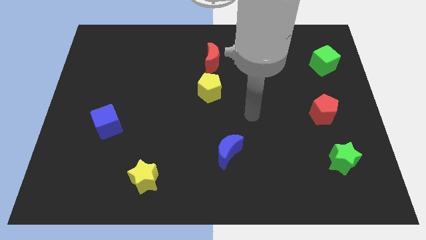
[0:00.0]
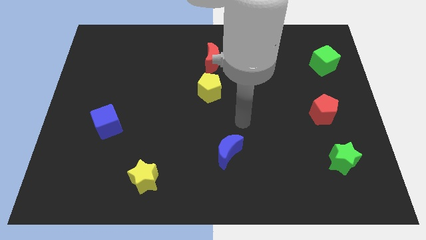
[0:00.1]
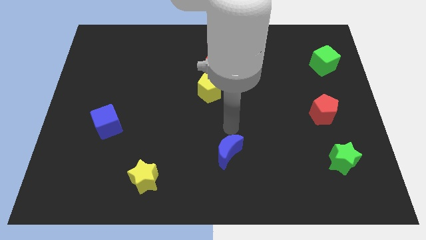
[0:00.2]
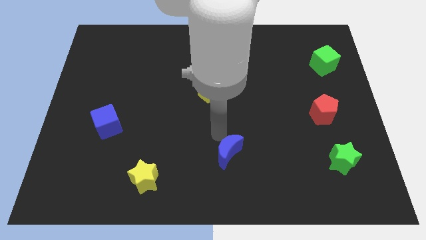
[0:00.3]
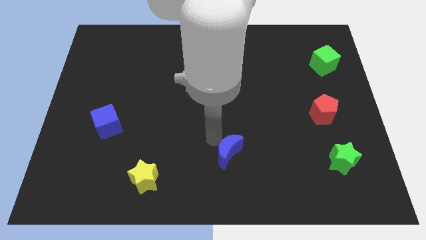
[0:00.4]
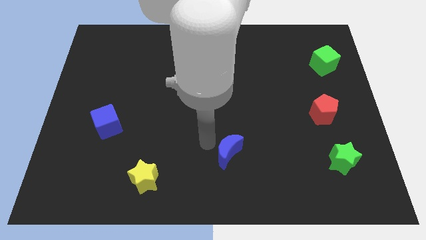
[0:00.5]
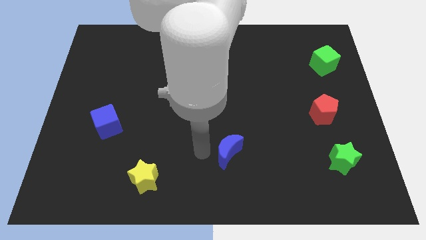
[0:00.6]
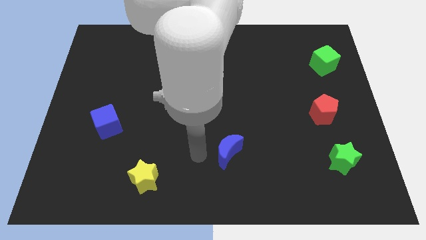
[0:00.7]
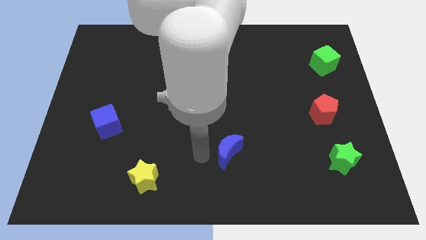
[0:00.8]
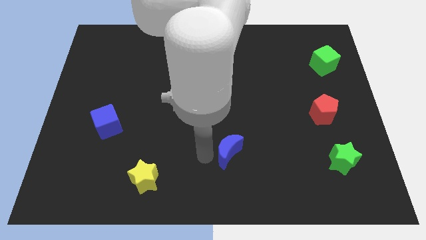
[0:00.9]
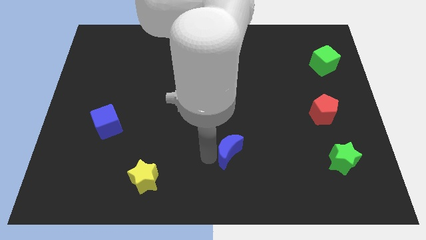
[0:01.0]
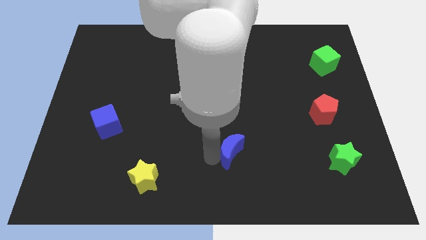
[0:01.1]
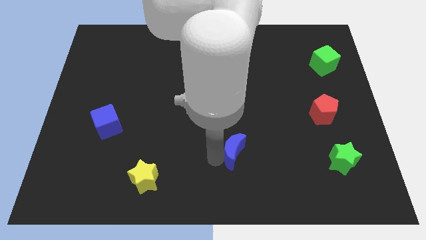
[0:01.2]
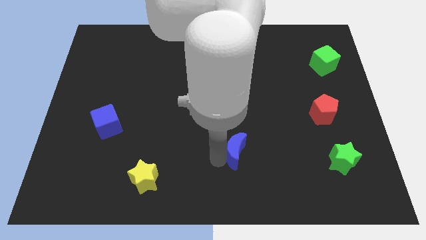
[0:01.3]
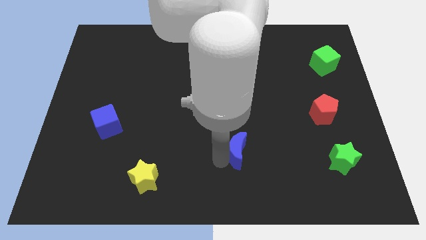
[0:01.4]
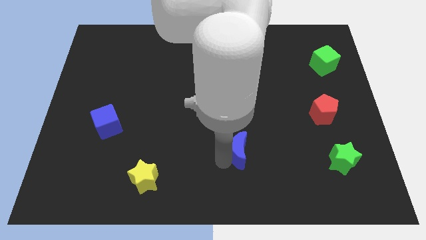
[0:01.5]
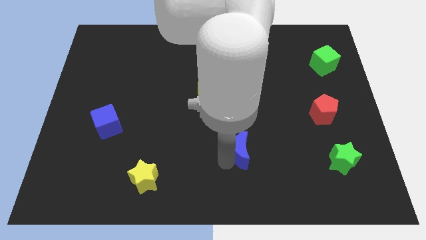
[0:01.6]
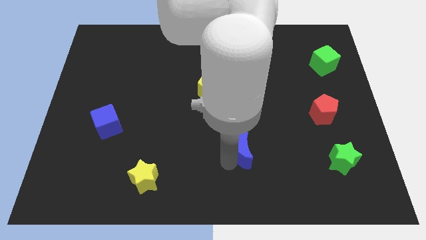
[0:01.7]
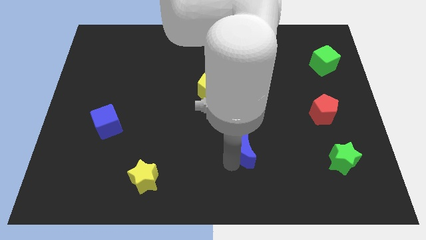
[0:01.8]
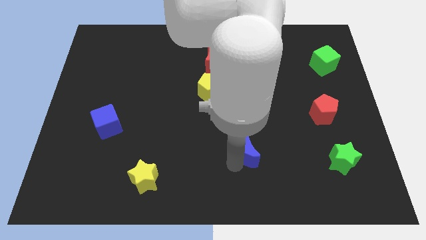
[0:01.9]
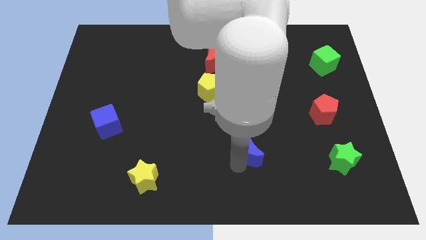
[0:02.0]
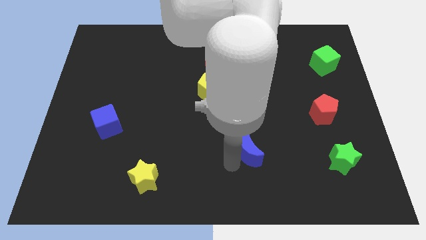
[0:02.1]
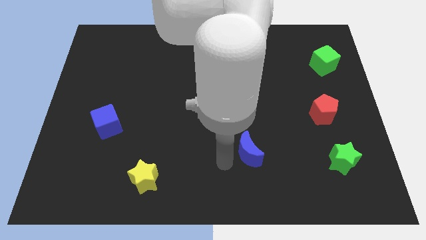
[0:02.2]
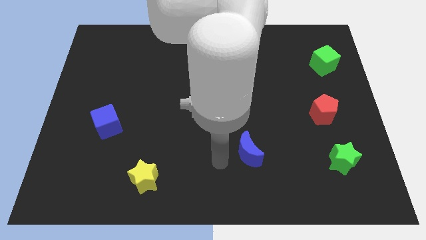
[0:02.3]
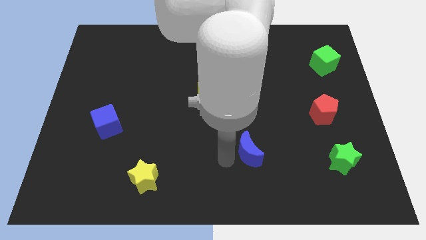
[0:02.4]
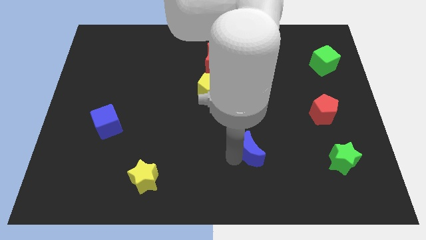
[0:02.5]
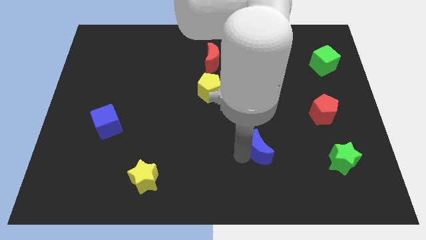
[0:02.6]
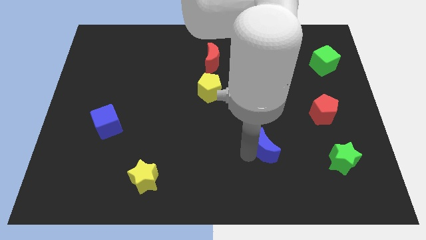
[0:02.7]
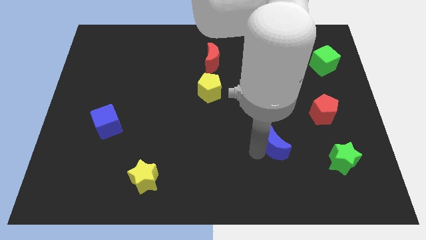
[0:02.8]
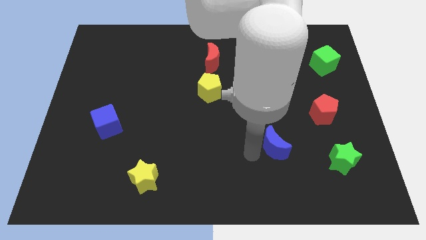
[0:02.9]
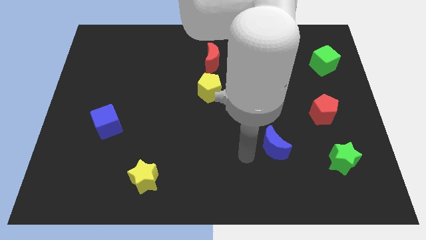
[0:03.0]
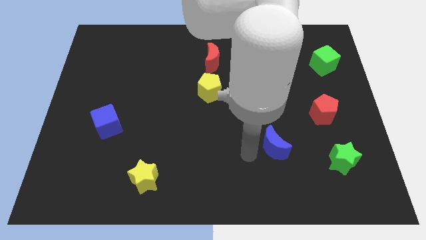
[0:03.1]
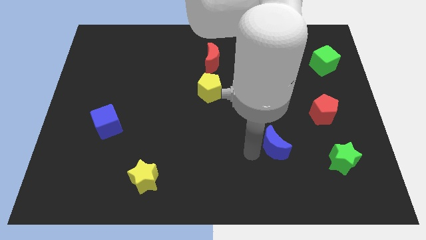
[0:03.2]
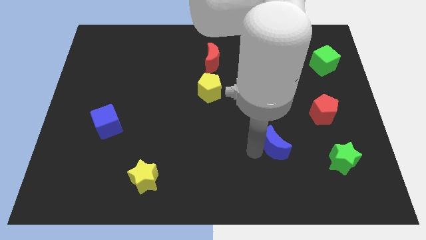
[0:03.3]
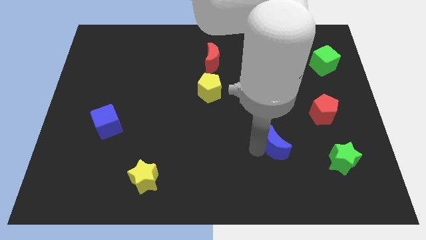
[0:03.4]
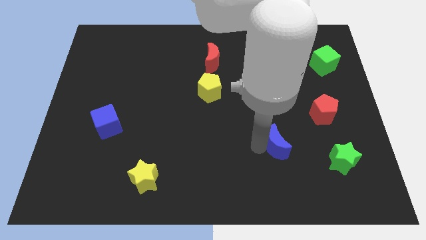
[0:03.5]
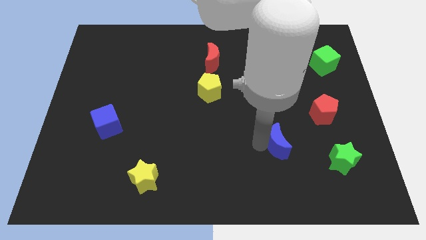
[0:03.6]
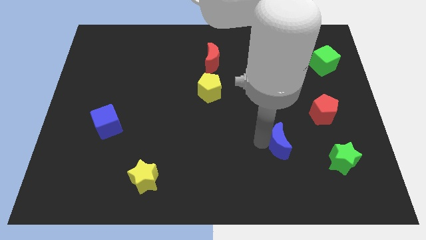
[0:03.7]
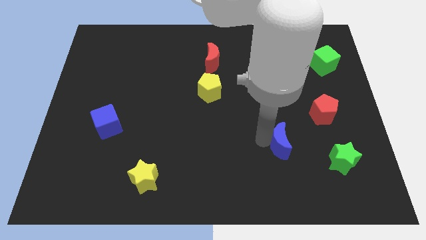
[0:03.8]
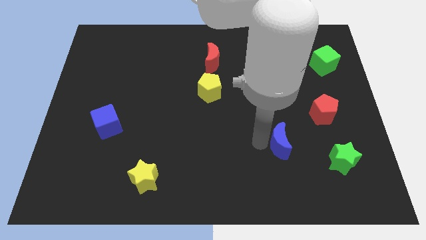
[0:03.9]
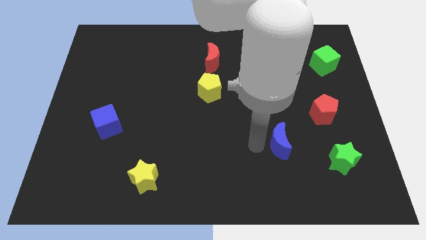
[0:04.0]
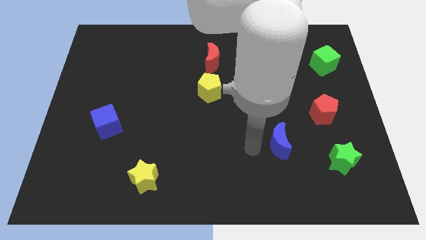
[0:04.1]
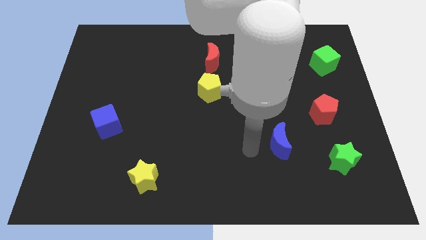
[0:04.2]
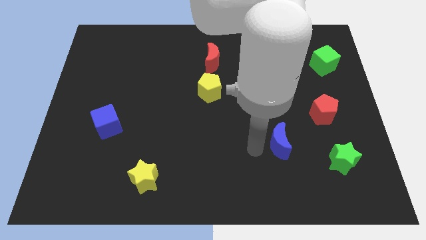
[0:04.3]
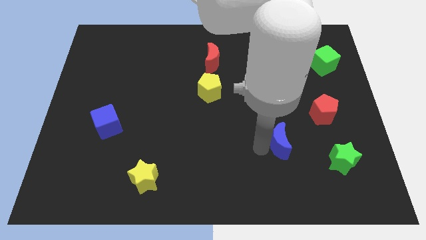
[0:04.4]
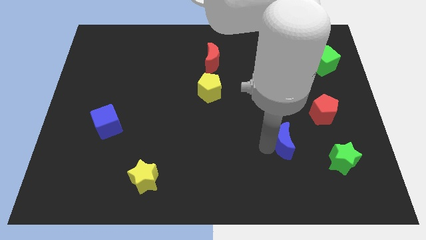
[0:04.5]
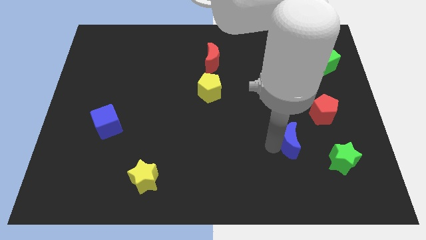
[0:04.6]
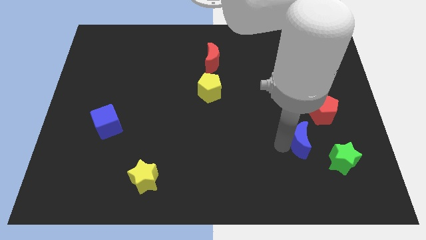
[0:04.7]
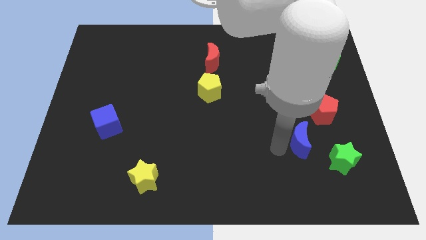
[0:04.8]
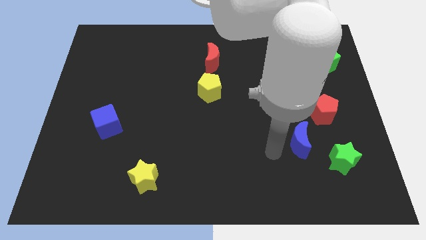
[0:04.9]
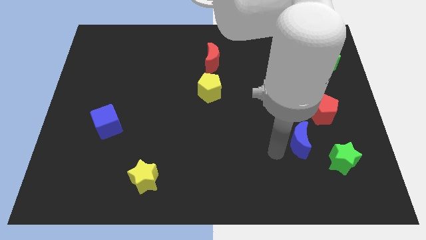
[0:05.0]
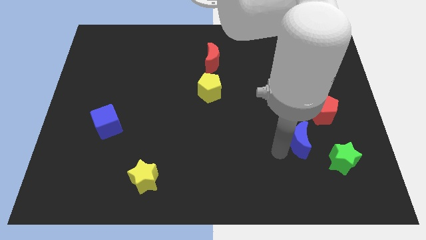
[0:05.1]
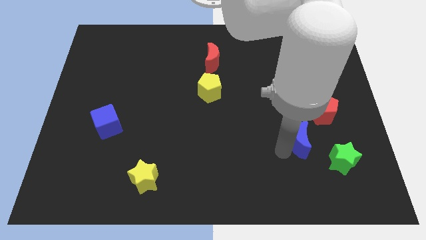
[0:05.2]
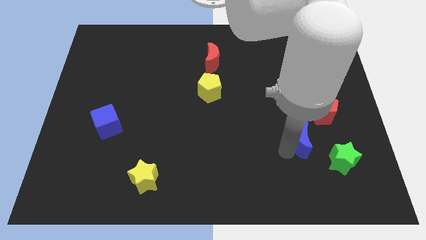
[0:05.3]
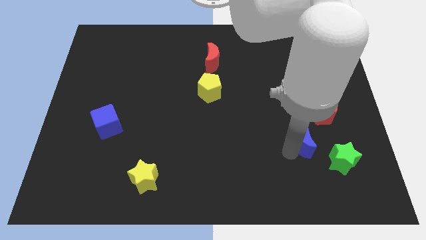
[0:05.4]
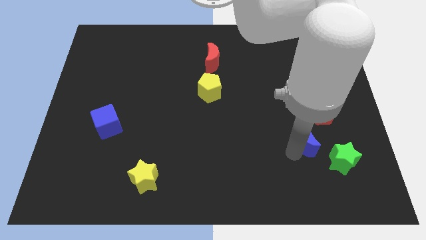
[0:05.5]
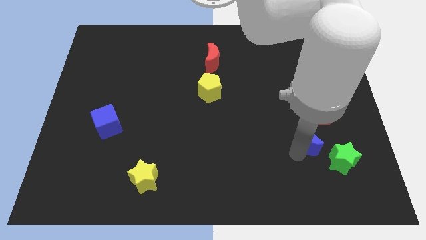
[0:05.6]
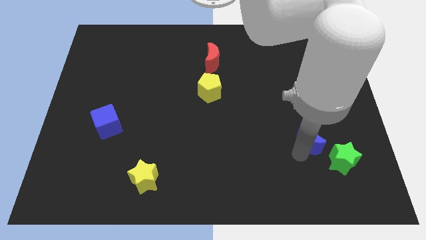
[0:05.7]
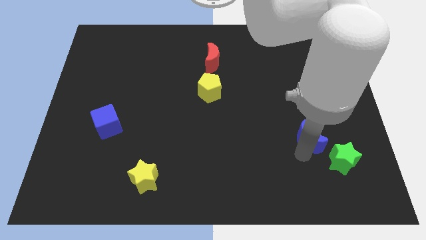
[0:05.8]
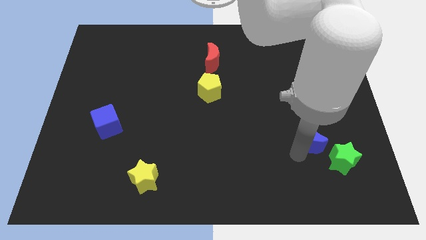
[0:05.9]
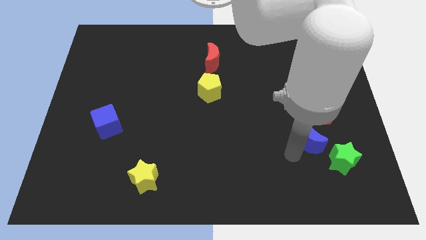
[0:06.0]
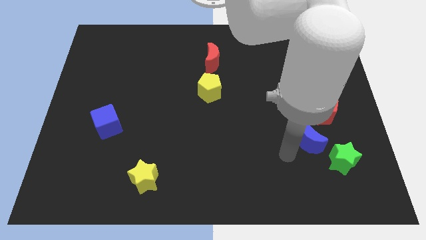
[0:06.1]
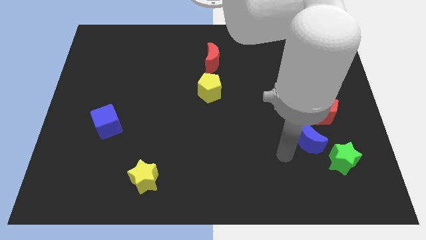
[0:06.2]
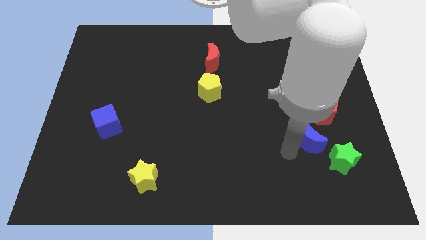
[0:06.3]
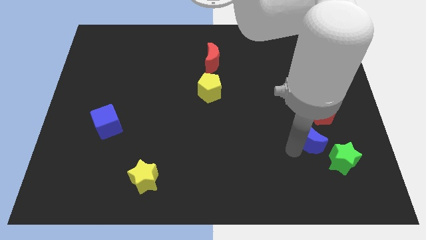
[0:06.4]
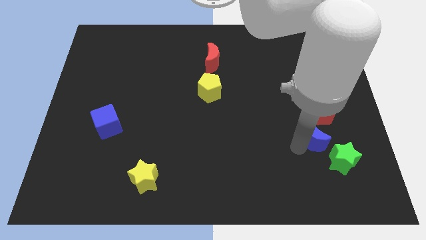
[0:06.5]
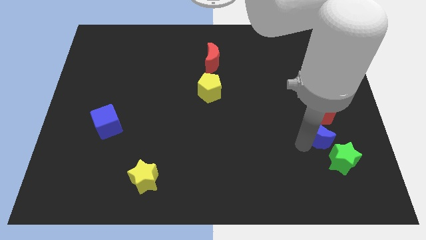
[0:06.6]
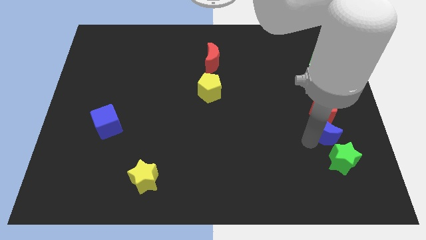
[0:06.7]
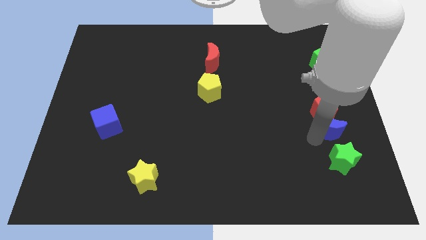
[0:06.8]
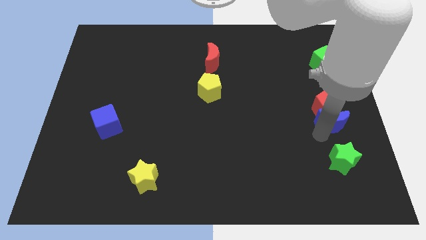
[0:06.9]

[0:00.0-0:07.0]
push the blue moon to the center right
